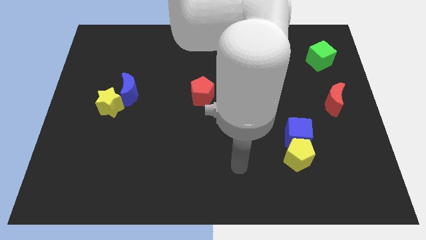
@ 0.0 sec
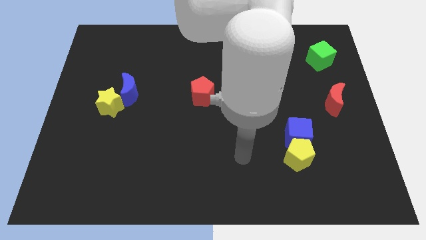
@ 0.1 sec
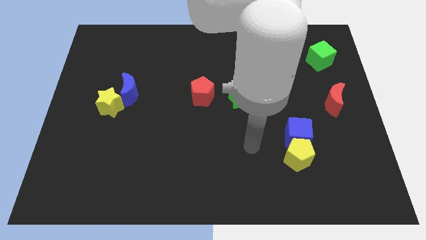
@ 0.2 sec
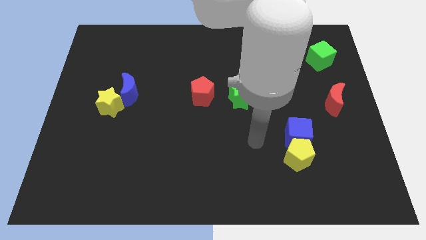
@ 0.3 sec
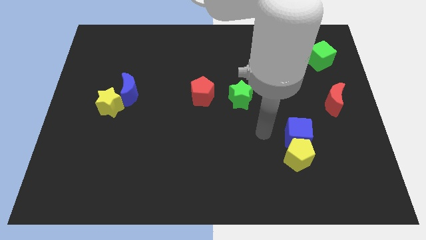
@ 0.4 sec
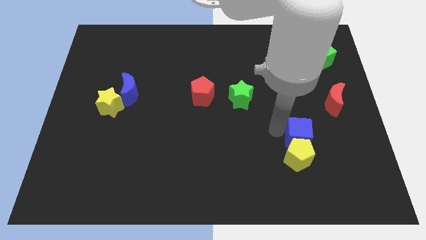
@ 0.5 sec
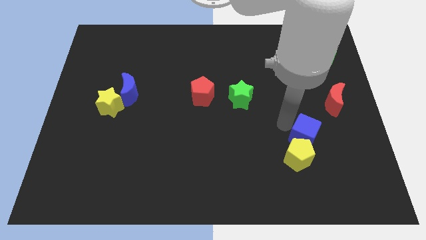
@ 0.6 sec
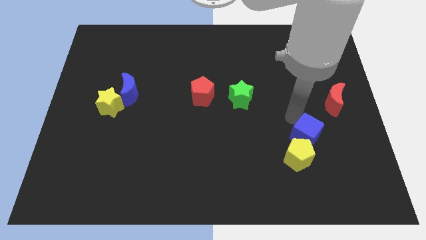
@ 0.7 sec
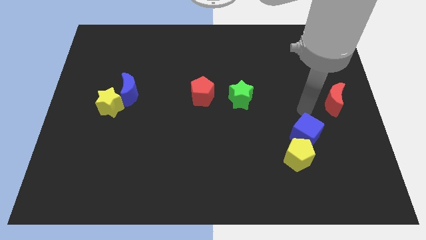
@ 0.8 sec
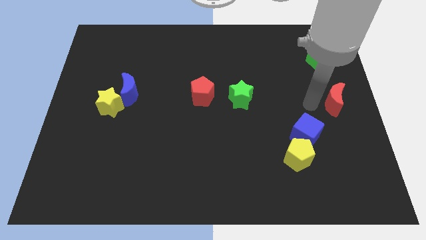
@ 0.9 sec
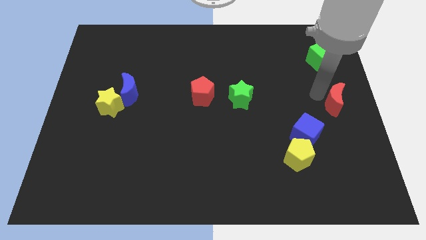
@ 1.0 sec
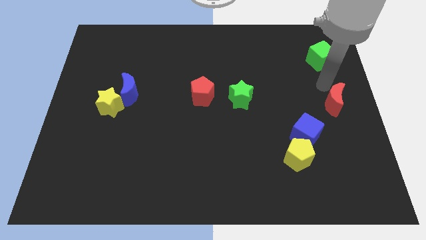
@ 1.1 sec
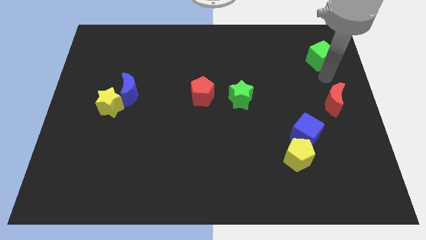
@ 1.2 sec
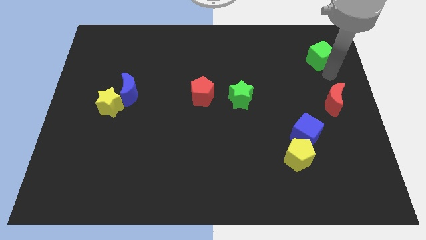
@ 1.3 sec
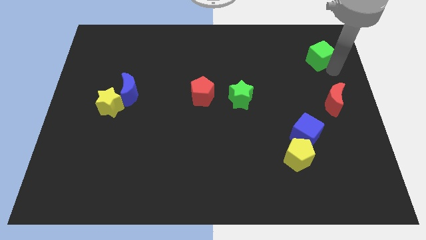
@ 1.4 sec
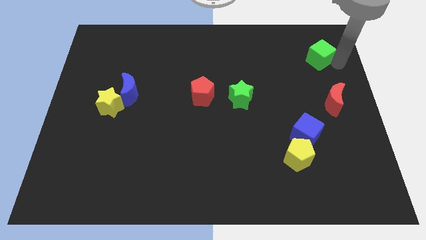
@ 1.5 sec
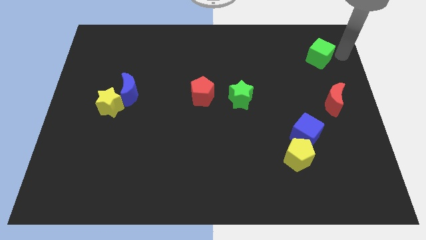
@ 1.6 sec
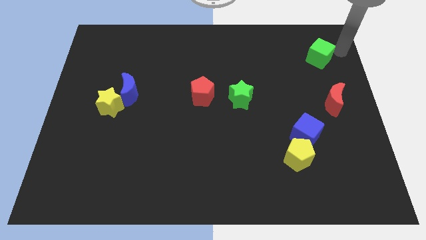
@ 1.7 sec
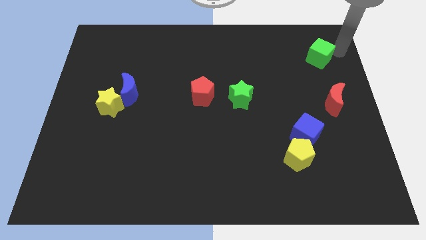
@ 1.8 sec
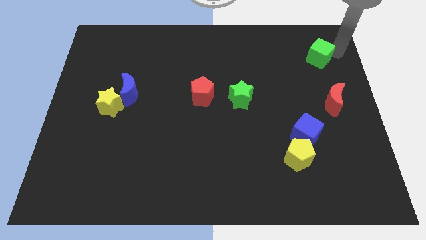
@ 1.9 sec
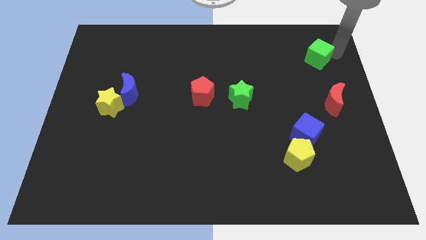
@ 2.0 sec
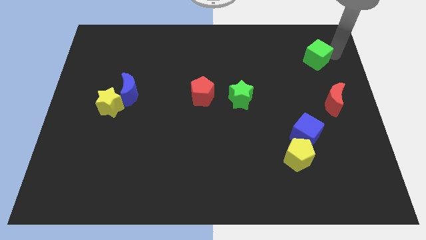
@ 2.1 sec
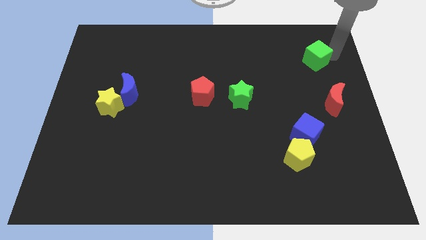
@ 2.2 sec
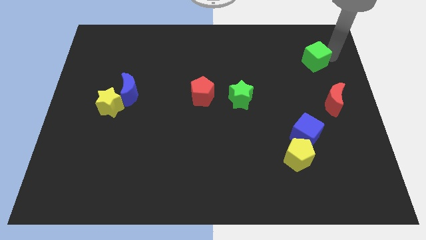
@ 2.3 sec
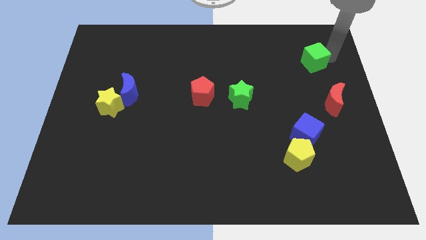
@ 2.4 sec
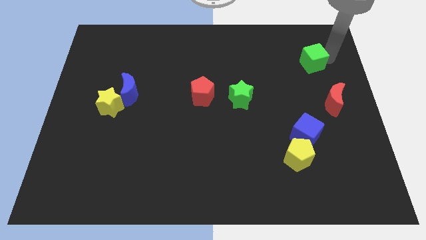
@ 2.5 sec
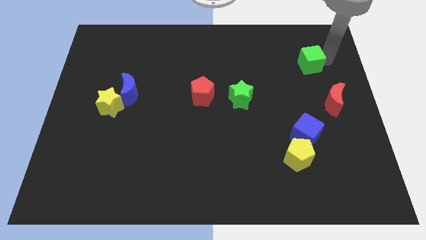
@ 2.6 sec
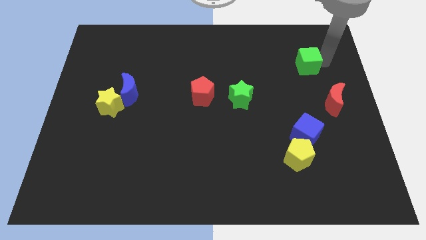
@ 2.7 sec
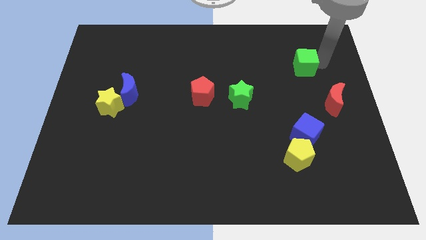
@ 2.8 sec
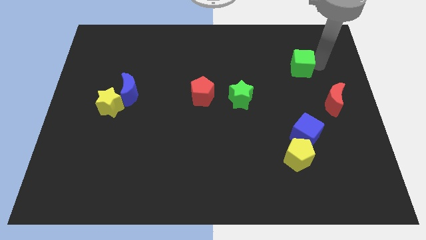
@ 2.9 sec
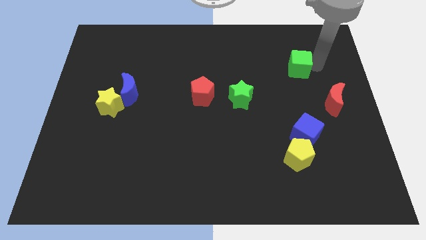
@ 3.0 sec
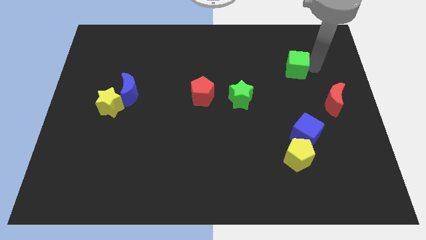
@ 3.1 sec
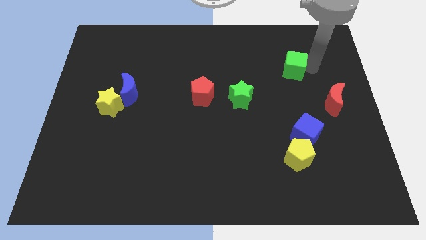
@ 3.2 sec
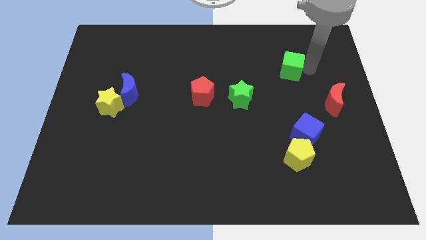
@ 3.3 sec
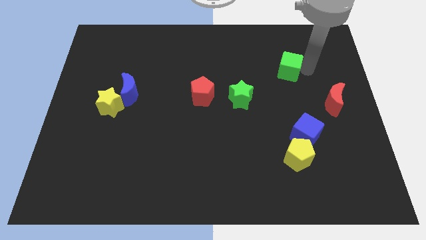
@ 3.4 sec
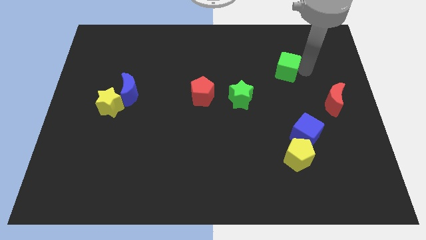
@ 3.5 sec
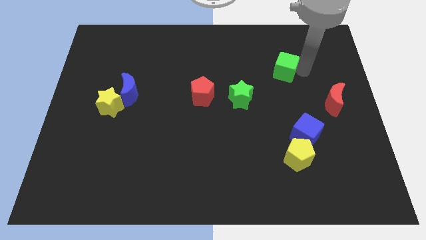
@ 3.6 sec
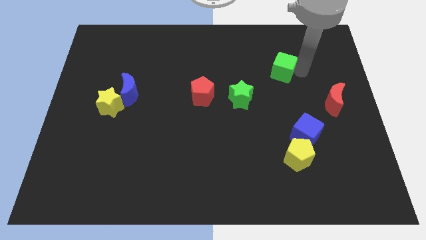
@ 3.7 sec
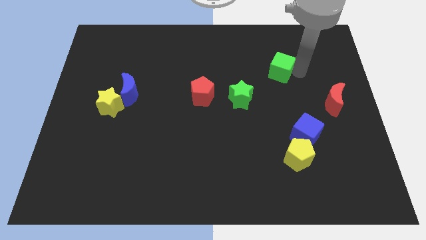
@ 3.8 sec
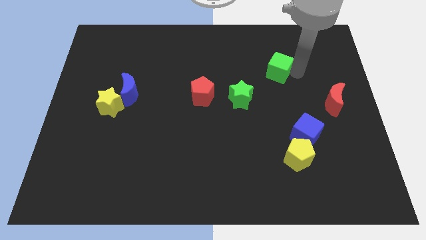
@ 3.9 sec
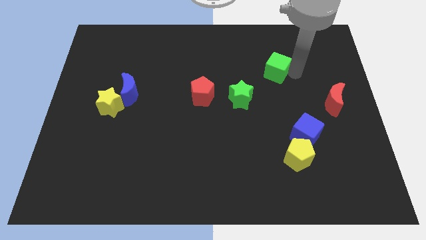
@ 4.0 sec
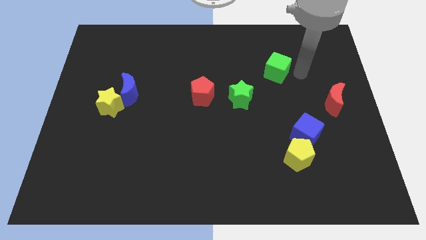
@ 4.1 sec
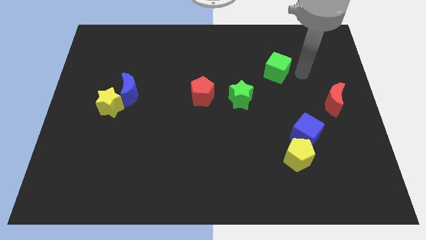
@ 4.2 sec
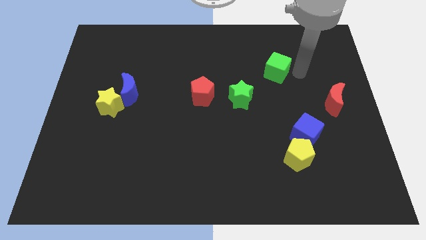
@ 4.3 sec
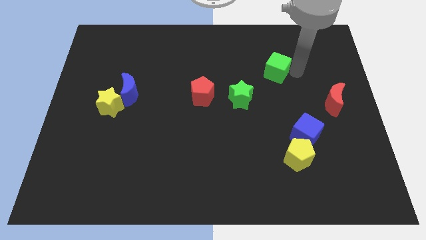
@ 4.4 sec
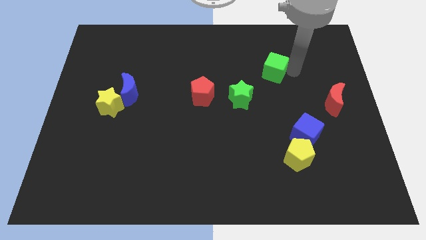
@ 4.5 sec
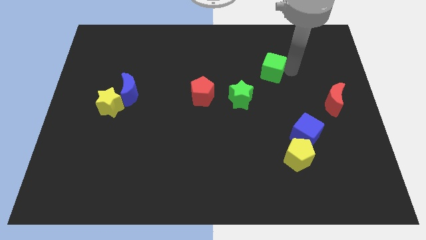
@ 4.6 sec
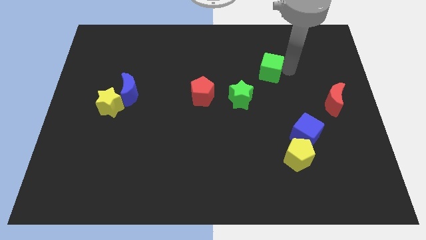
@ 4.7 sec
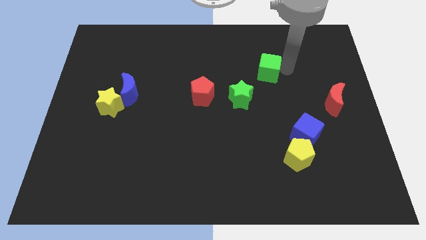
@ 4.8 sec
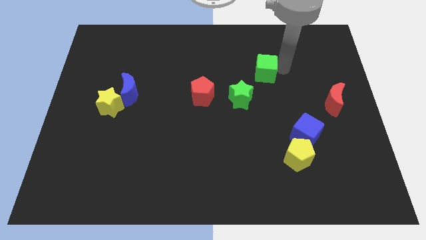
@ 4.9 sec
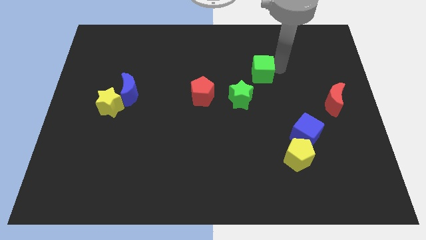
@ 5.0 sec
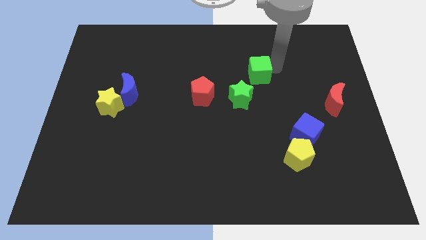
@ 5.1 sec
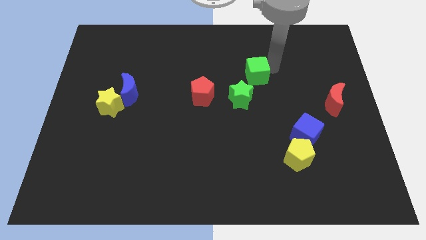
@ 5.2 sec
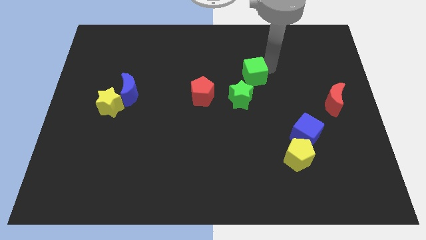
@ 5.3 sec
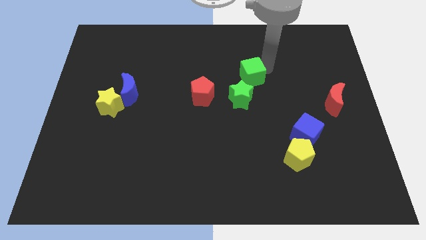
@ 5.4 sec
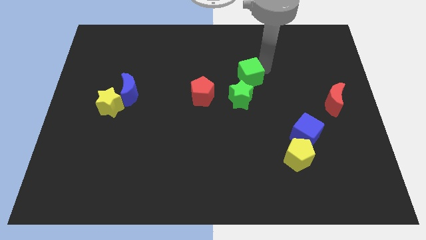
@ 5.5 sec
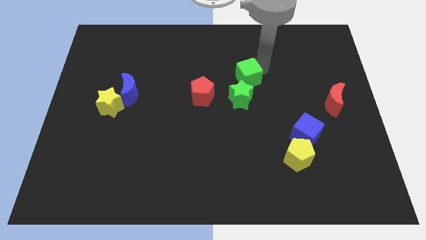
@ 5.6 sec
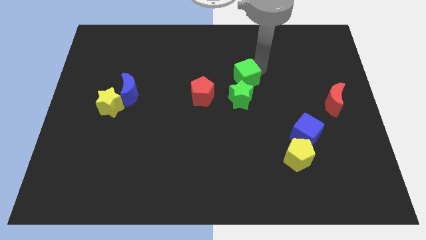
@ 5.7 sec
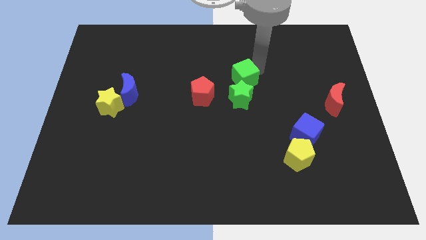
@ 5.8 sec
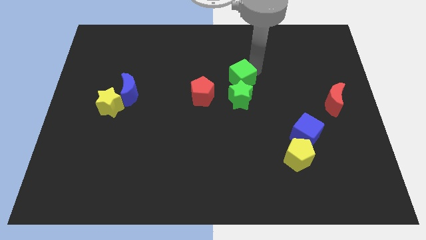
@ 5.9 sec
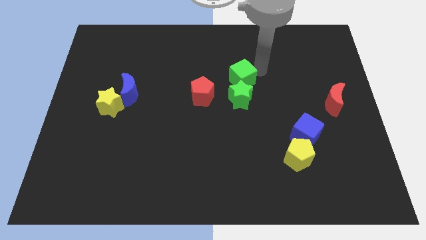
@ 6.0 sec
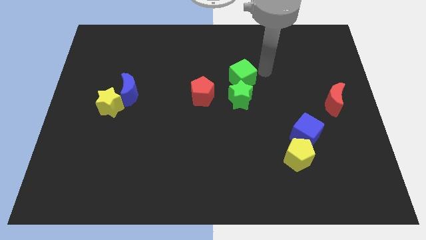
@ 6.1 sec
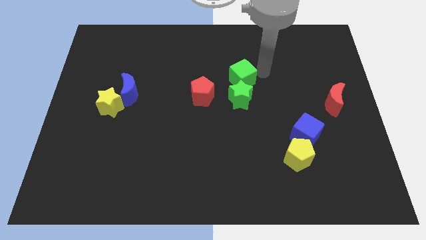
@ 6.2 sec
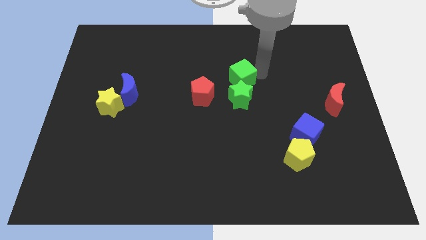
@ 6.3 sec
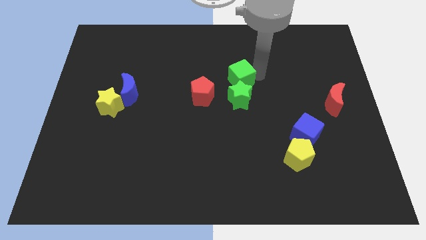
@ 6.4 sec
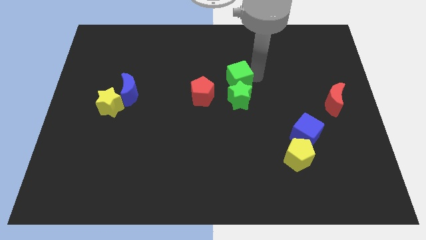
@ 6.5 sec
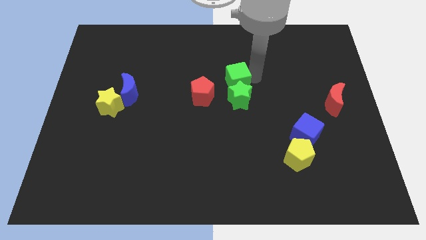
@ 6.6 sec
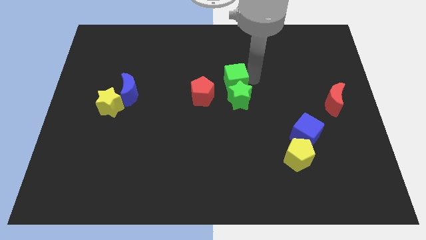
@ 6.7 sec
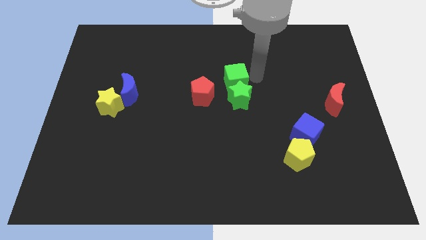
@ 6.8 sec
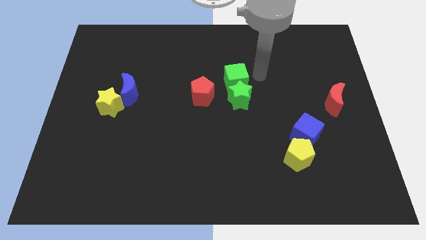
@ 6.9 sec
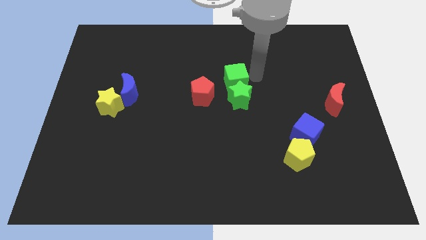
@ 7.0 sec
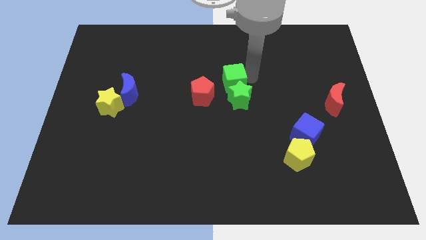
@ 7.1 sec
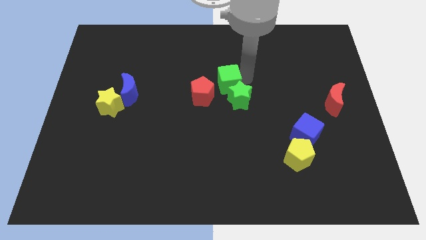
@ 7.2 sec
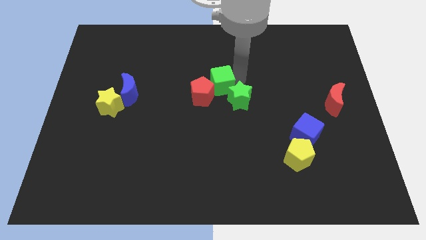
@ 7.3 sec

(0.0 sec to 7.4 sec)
push the green cube close to the red pentagon
